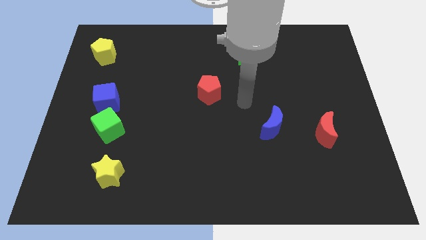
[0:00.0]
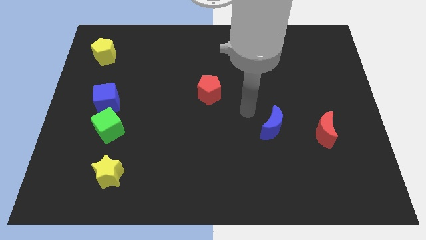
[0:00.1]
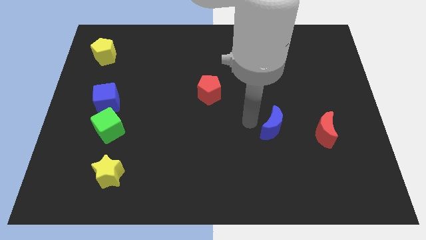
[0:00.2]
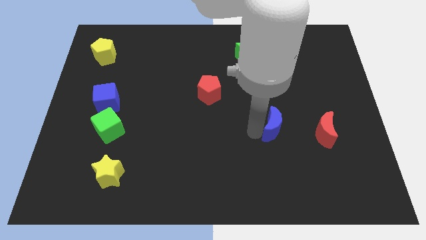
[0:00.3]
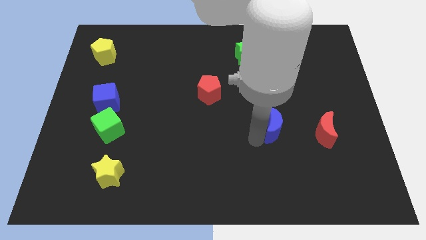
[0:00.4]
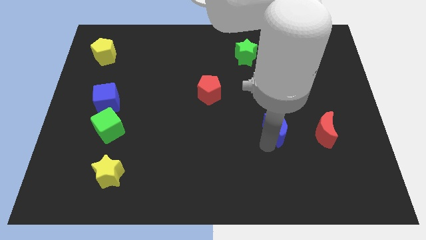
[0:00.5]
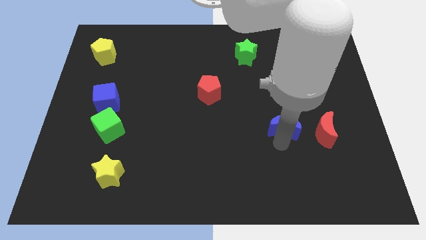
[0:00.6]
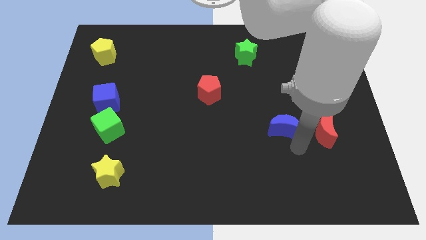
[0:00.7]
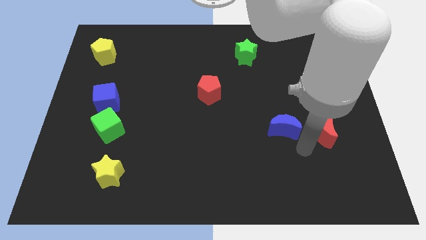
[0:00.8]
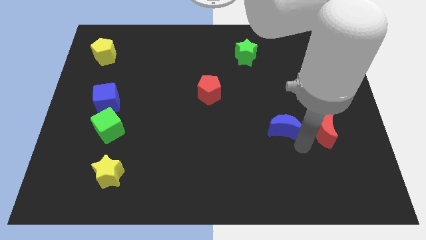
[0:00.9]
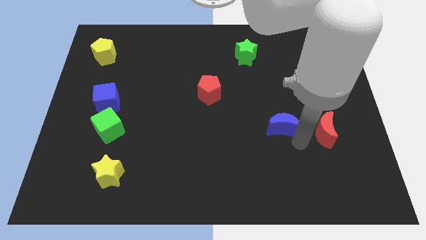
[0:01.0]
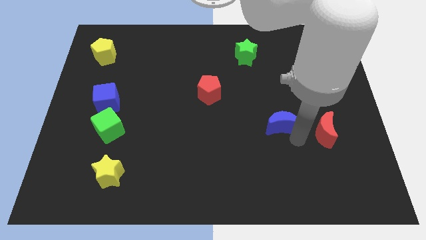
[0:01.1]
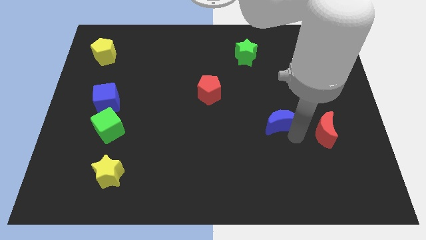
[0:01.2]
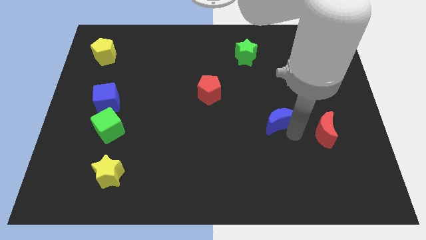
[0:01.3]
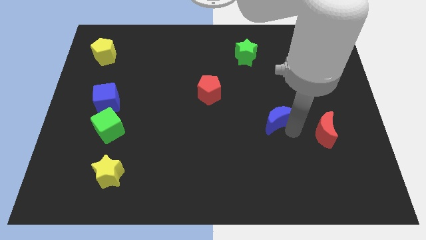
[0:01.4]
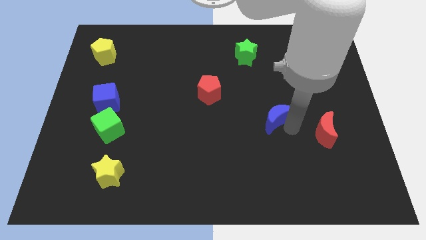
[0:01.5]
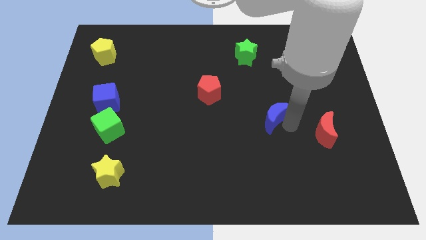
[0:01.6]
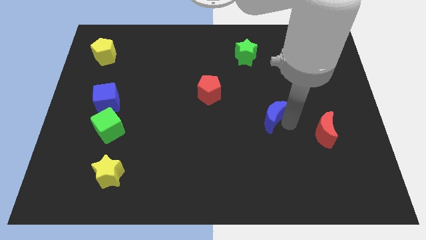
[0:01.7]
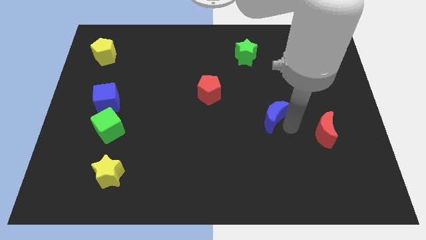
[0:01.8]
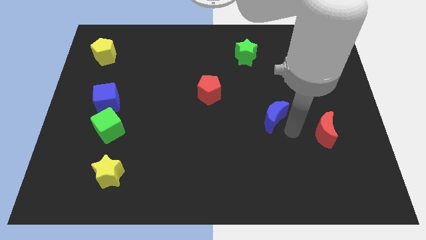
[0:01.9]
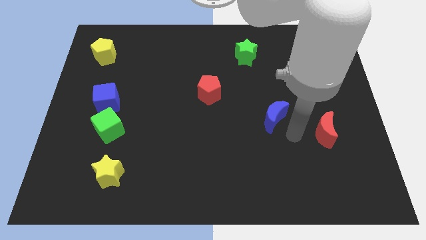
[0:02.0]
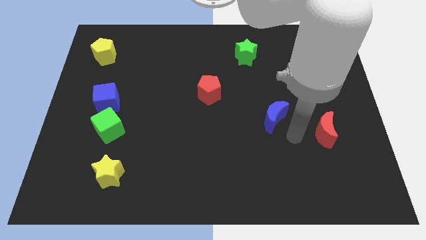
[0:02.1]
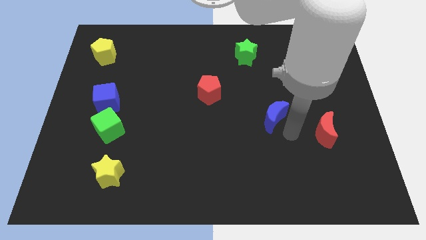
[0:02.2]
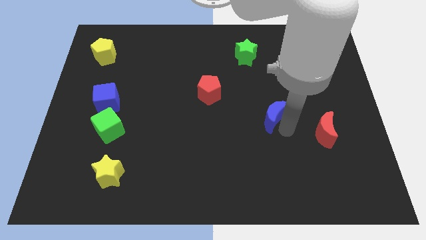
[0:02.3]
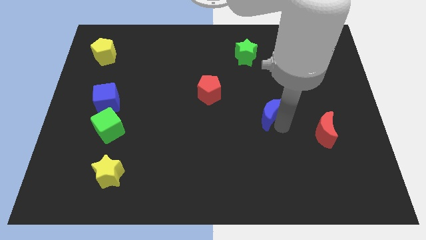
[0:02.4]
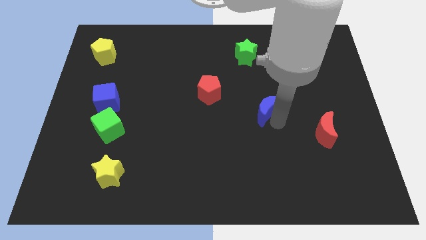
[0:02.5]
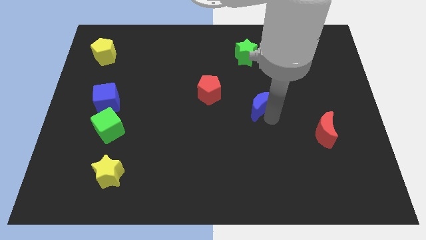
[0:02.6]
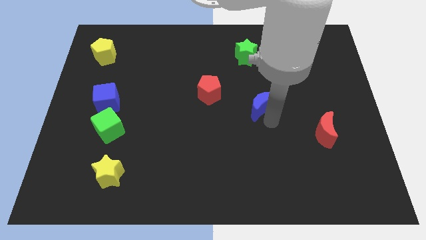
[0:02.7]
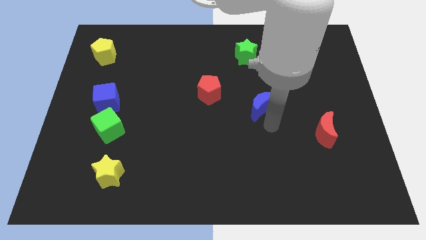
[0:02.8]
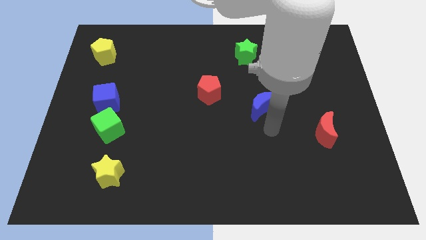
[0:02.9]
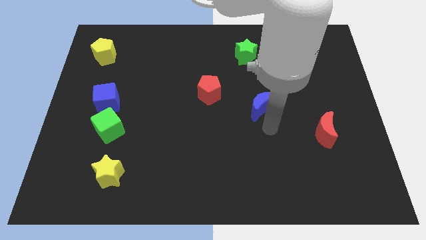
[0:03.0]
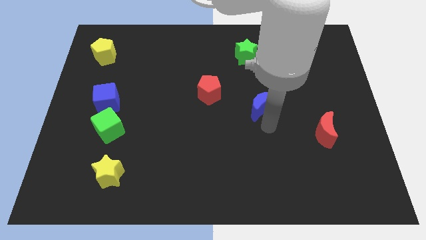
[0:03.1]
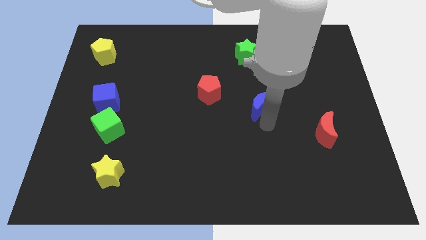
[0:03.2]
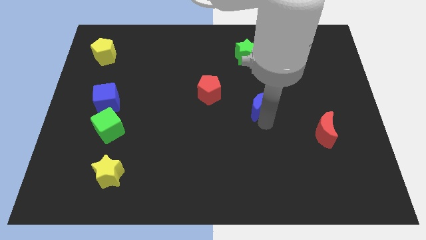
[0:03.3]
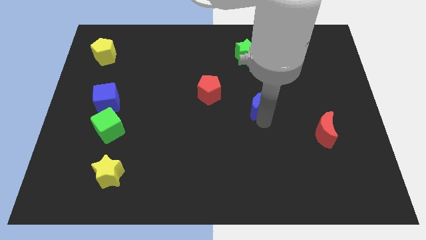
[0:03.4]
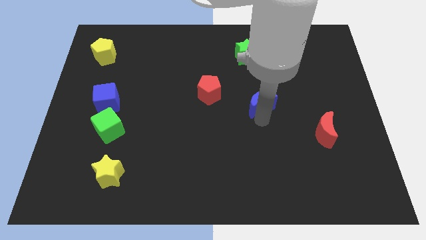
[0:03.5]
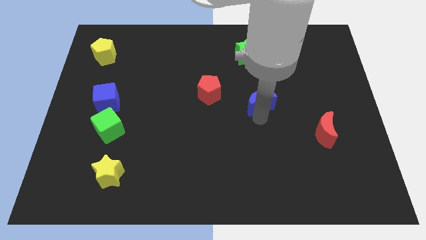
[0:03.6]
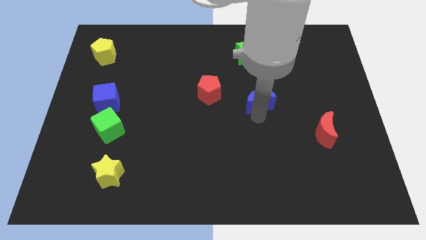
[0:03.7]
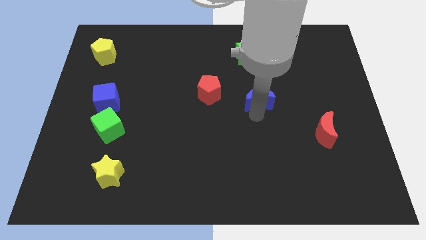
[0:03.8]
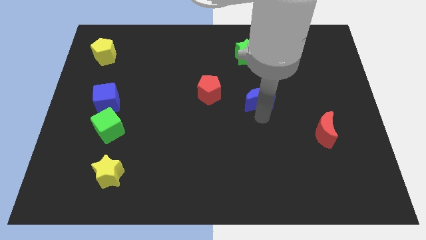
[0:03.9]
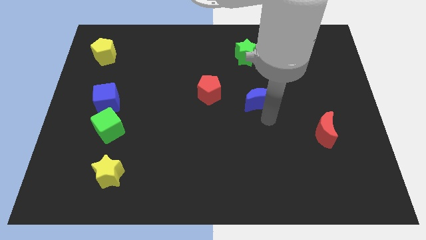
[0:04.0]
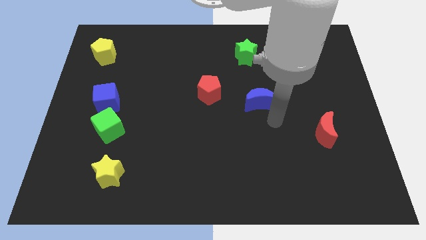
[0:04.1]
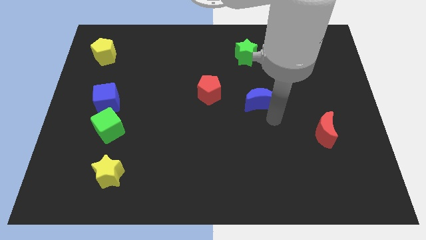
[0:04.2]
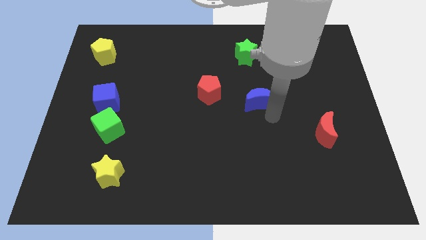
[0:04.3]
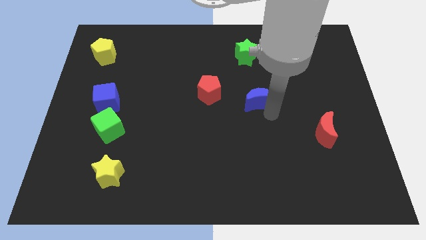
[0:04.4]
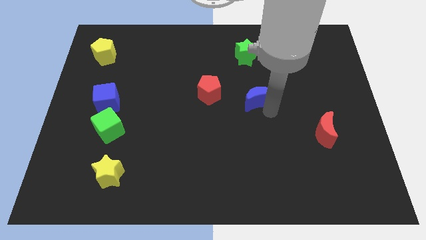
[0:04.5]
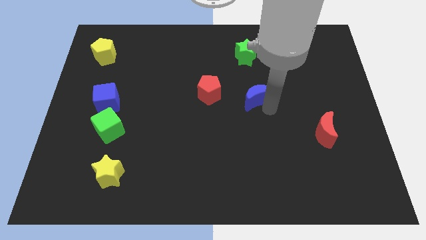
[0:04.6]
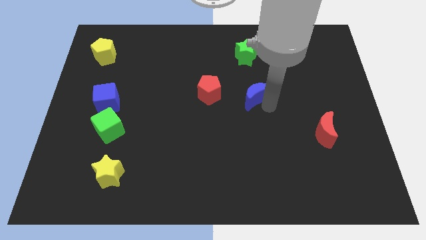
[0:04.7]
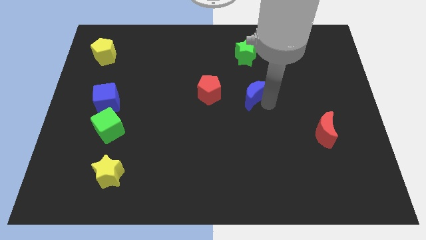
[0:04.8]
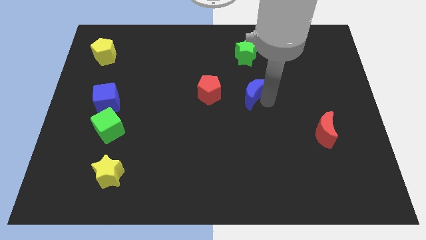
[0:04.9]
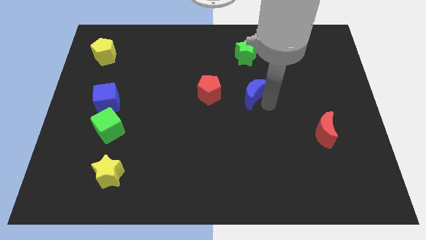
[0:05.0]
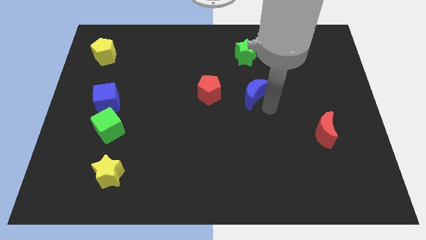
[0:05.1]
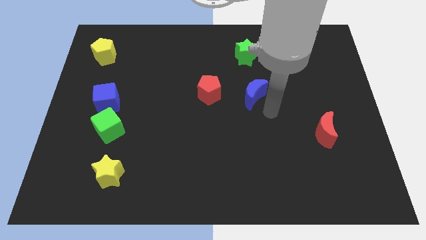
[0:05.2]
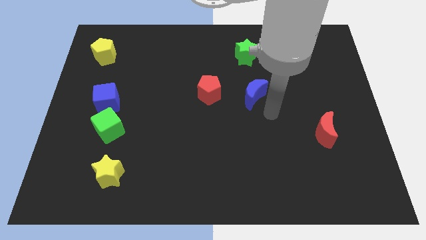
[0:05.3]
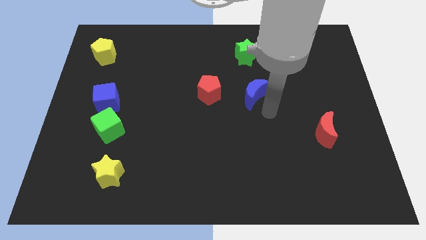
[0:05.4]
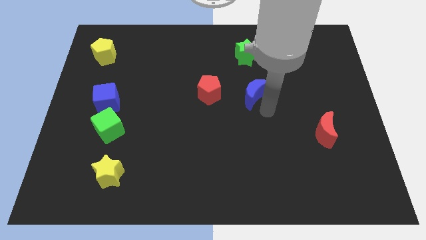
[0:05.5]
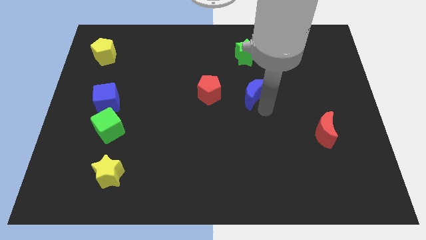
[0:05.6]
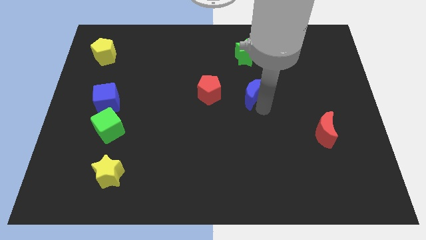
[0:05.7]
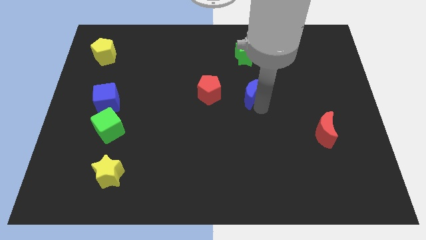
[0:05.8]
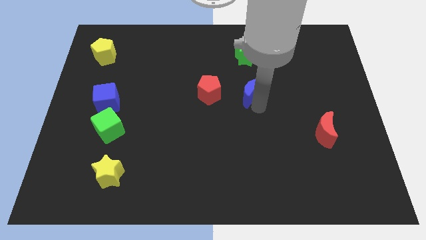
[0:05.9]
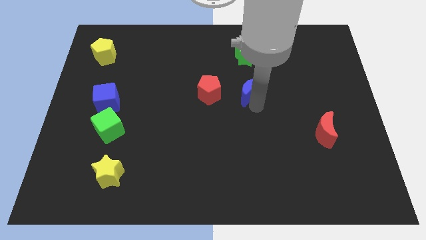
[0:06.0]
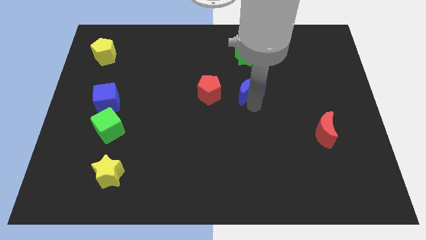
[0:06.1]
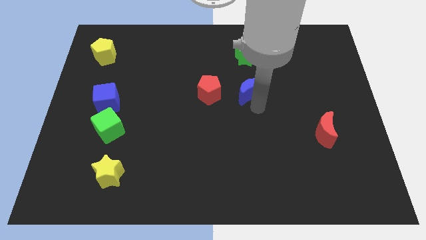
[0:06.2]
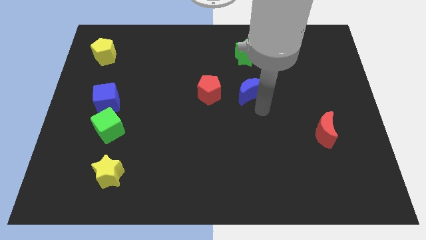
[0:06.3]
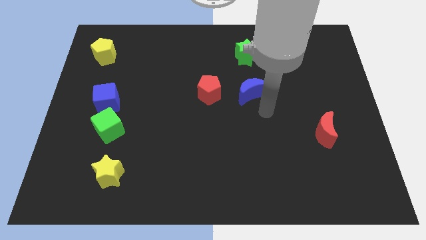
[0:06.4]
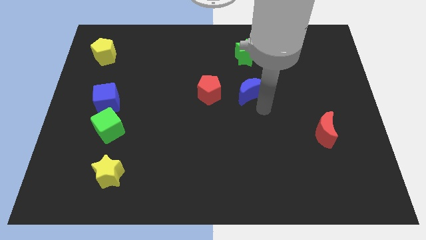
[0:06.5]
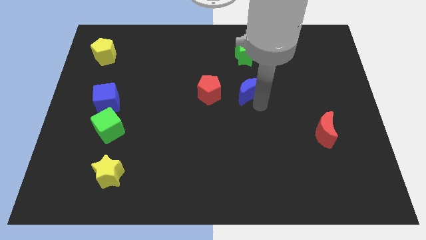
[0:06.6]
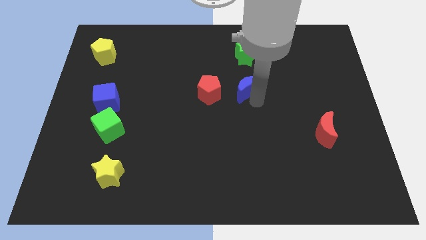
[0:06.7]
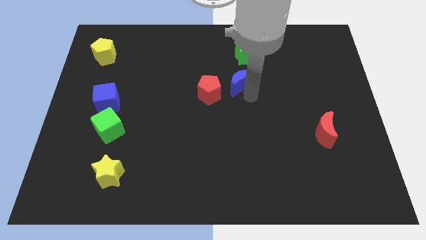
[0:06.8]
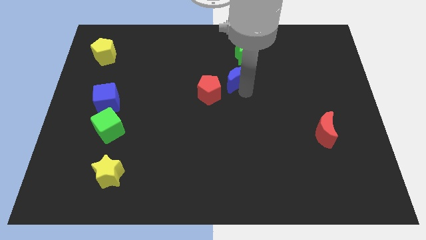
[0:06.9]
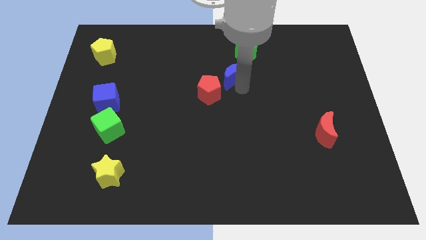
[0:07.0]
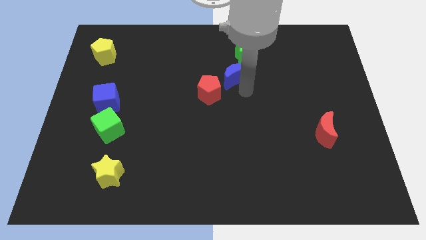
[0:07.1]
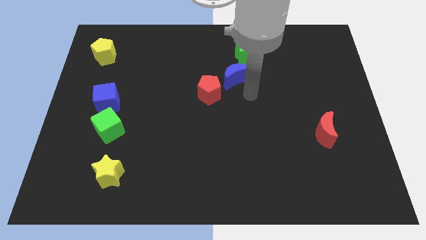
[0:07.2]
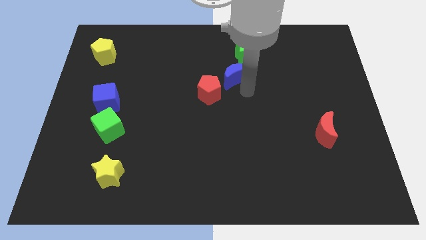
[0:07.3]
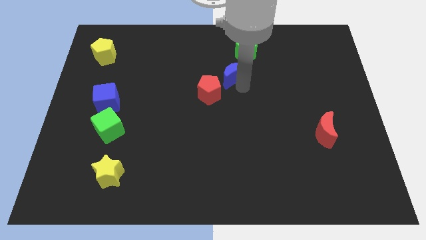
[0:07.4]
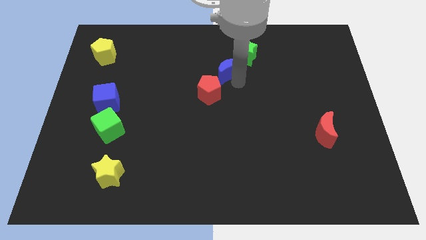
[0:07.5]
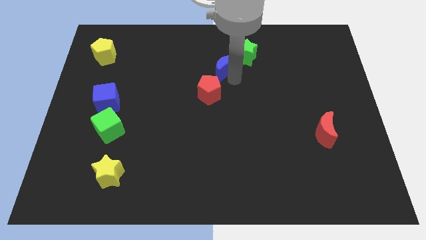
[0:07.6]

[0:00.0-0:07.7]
move the blue moon left of the green star
